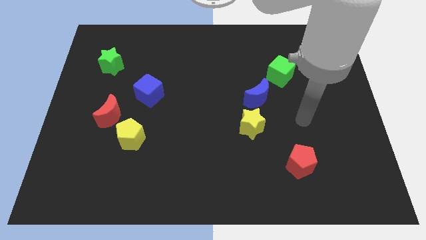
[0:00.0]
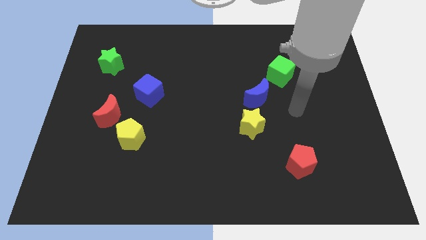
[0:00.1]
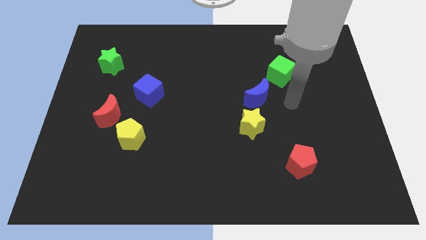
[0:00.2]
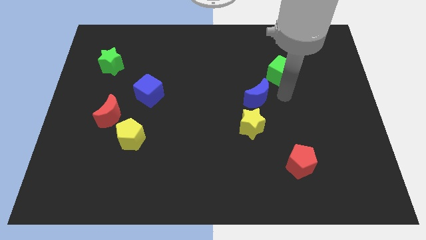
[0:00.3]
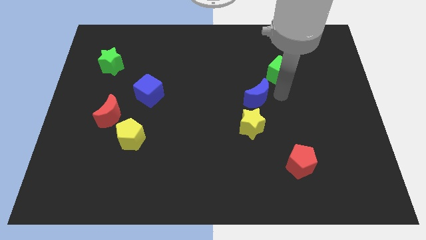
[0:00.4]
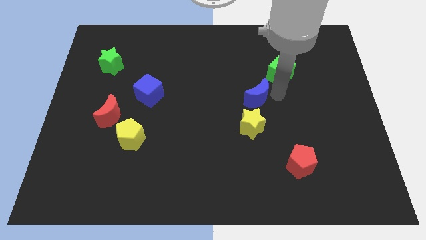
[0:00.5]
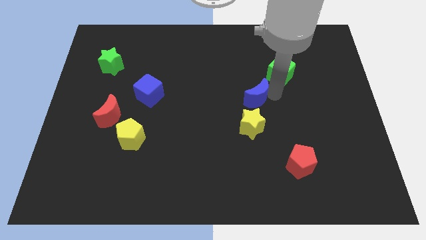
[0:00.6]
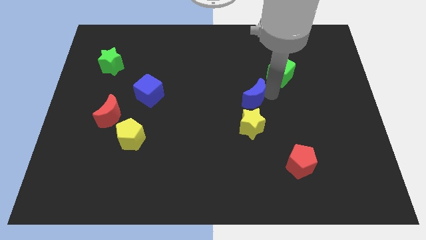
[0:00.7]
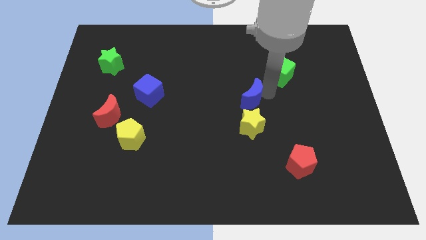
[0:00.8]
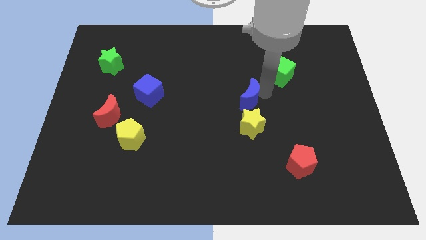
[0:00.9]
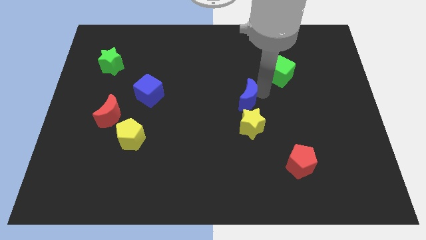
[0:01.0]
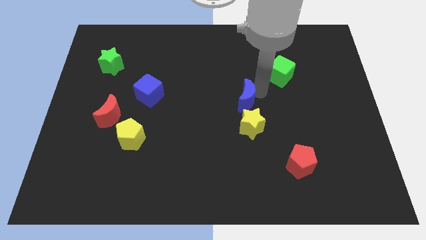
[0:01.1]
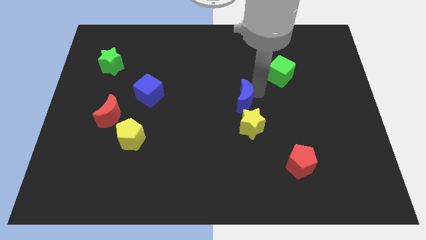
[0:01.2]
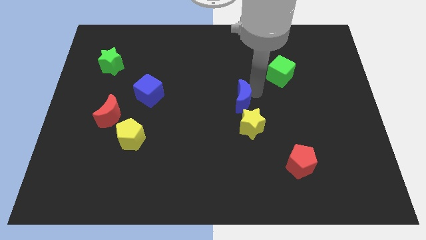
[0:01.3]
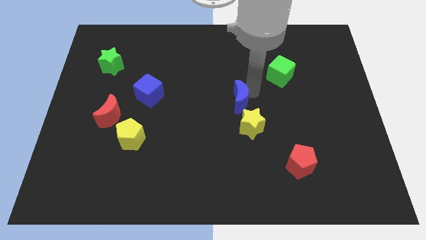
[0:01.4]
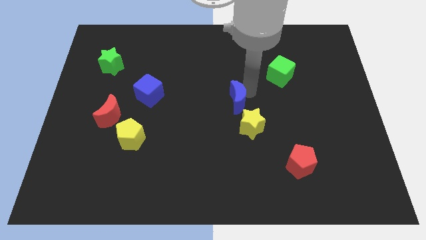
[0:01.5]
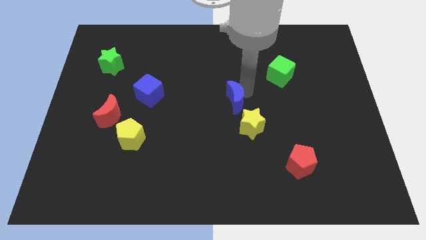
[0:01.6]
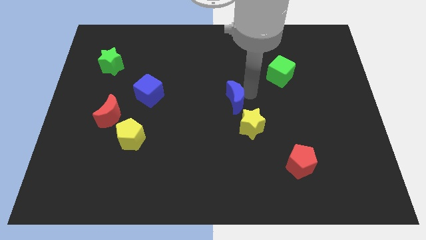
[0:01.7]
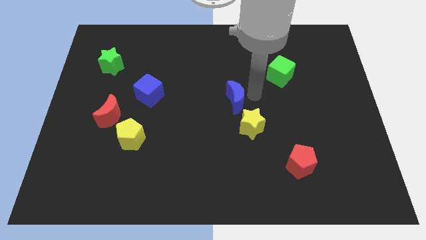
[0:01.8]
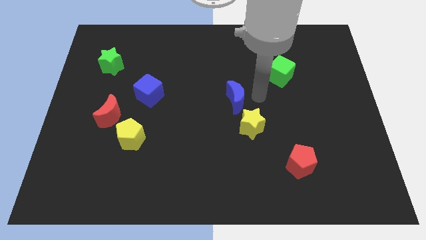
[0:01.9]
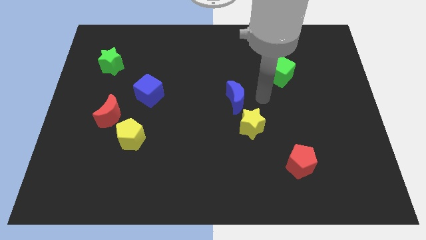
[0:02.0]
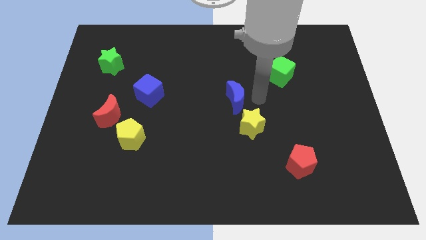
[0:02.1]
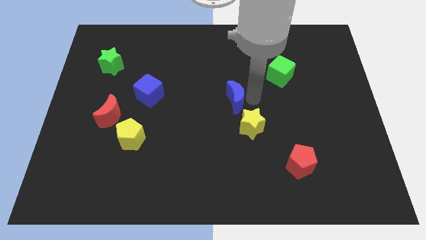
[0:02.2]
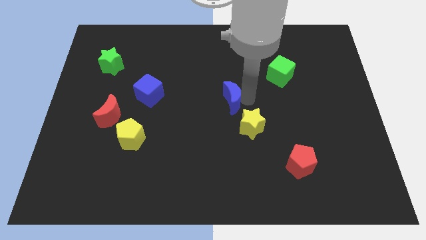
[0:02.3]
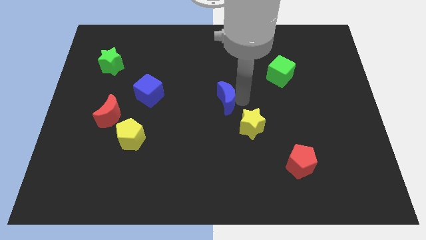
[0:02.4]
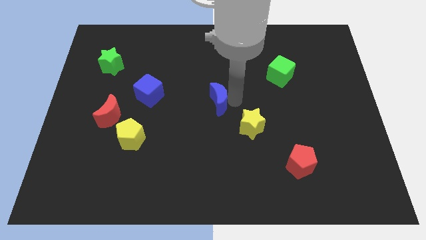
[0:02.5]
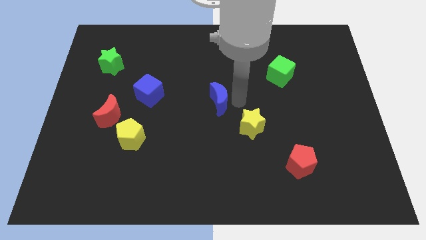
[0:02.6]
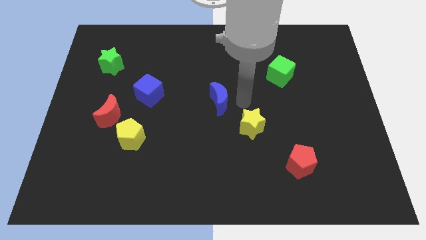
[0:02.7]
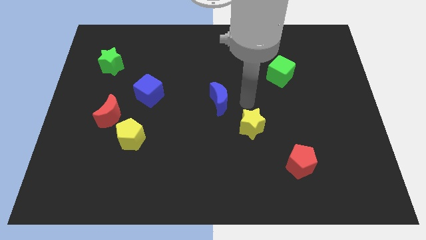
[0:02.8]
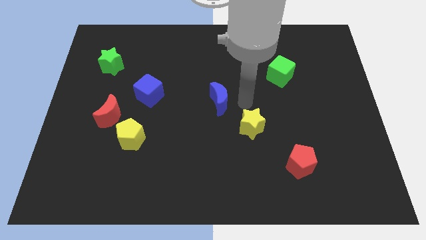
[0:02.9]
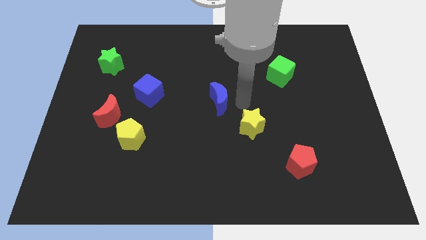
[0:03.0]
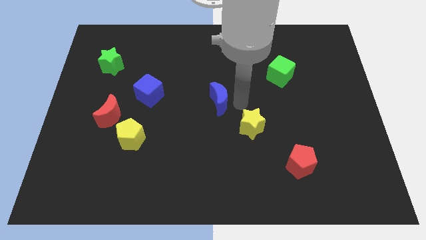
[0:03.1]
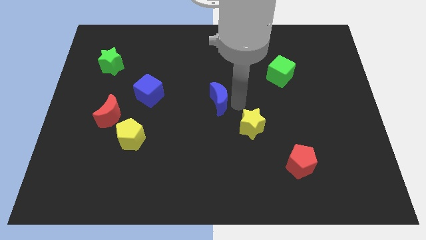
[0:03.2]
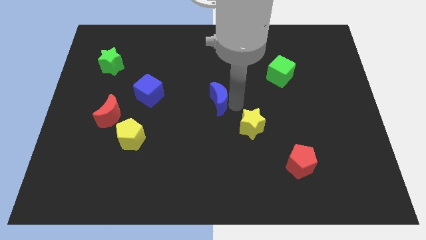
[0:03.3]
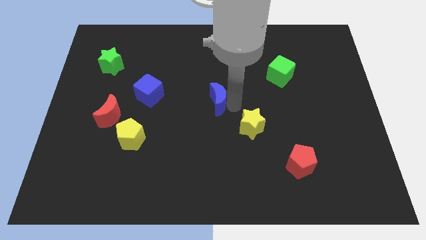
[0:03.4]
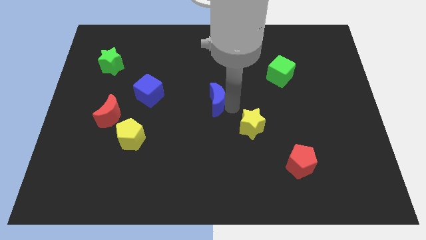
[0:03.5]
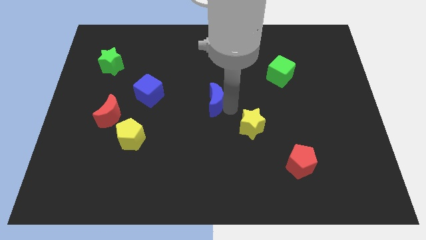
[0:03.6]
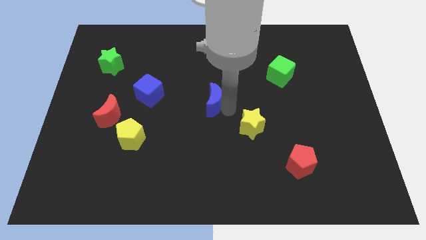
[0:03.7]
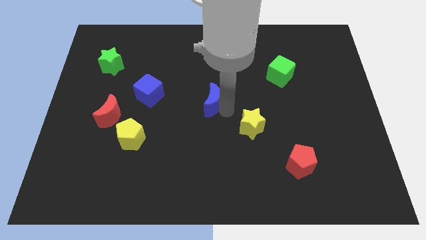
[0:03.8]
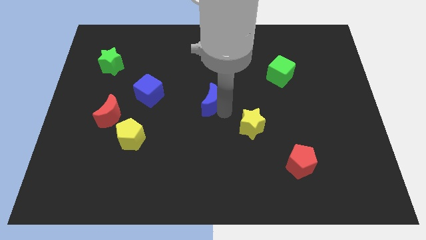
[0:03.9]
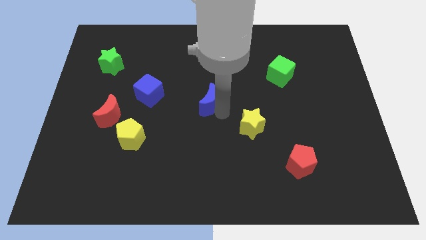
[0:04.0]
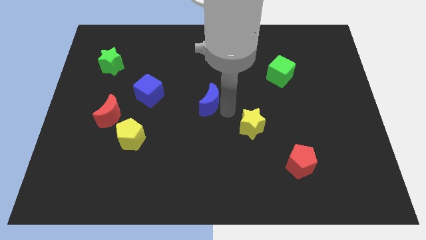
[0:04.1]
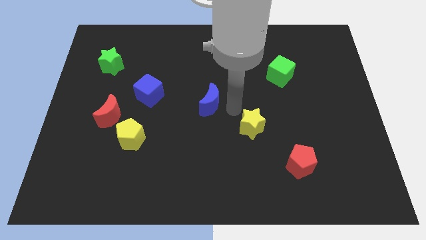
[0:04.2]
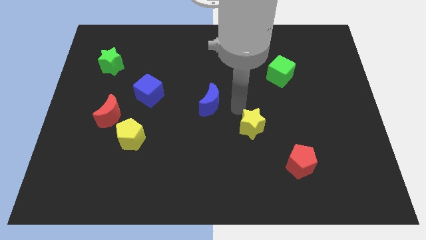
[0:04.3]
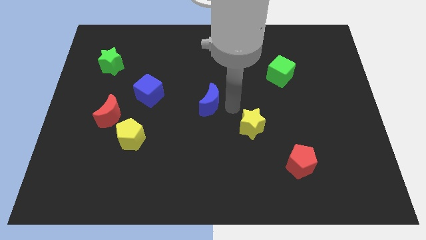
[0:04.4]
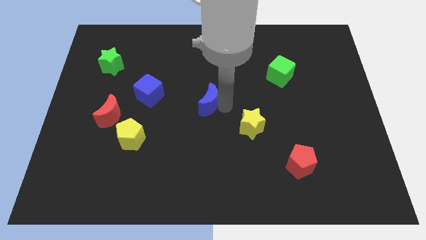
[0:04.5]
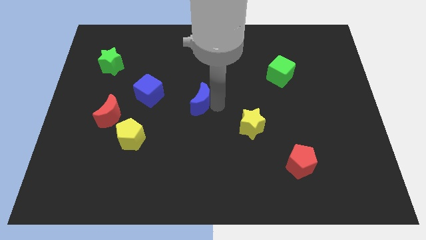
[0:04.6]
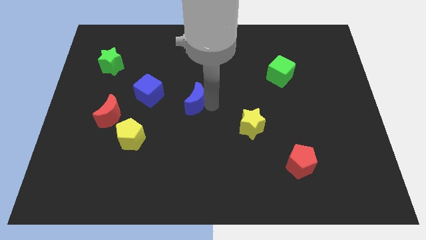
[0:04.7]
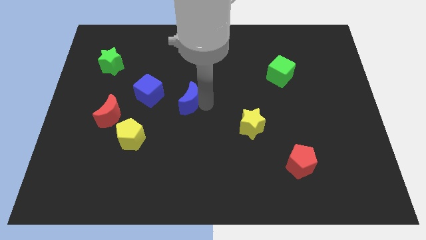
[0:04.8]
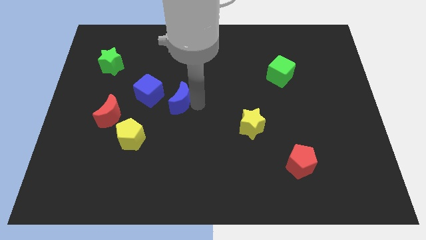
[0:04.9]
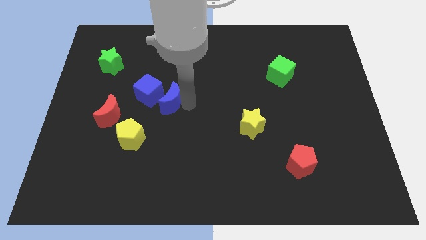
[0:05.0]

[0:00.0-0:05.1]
push the blue moon towards the blue cube

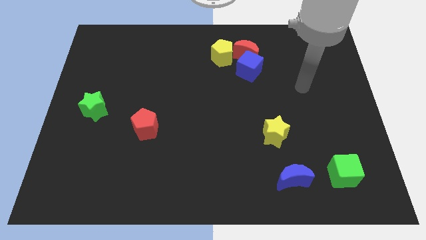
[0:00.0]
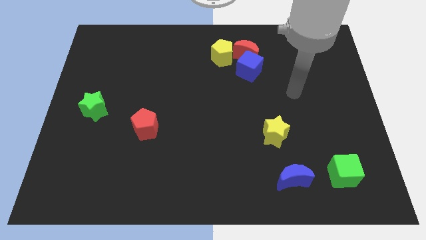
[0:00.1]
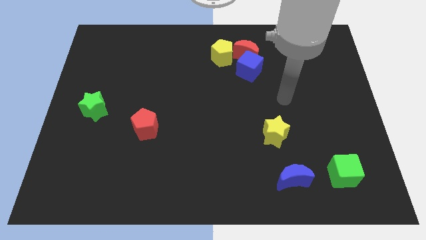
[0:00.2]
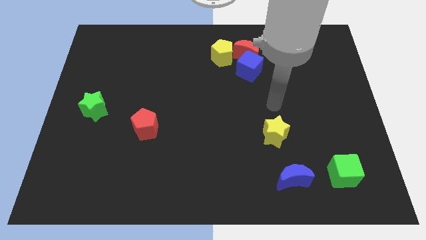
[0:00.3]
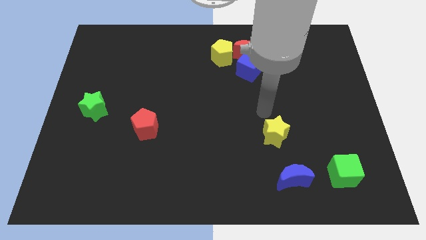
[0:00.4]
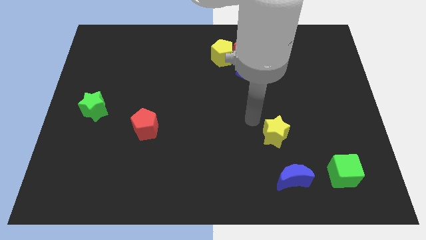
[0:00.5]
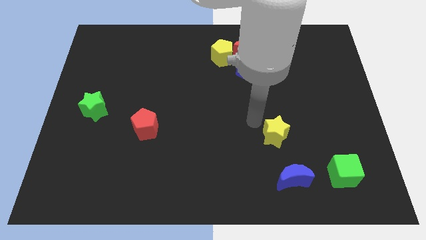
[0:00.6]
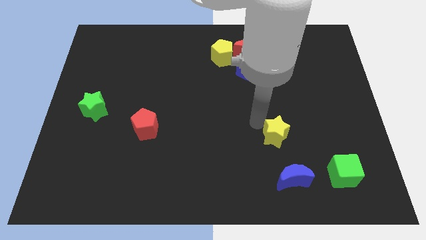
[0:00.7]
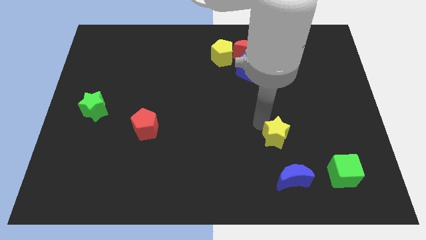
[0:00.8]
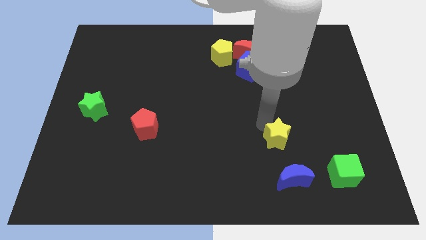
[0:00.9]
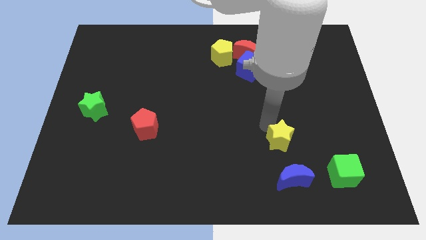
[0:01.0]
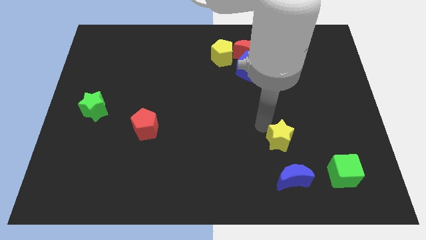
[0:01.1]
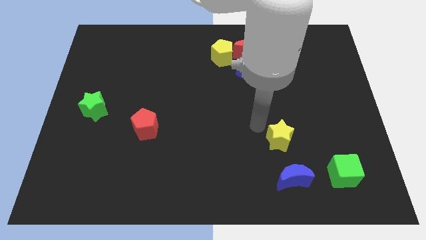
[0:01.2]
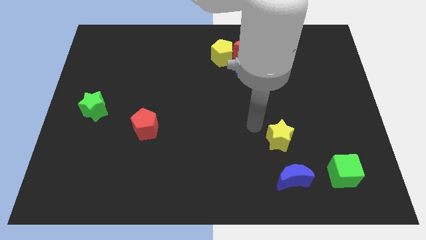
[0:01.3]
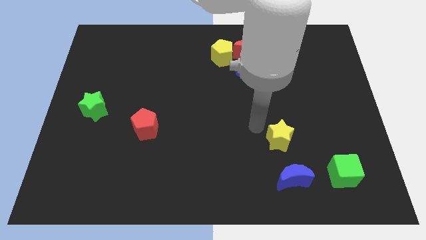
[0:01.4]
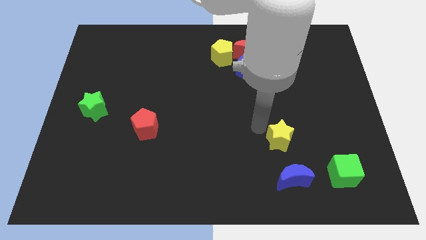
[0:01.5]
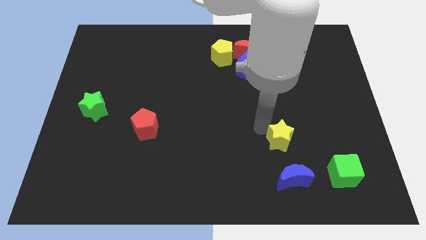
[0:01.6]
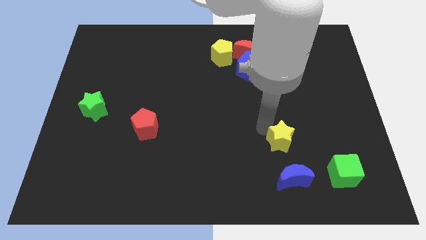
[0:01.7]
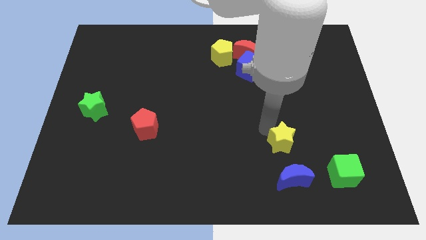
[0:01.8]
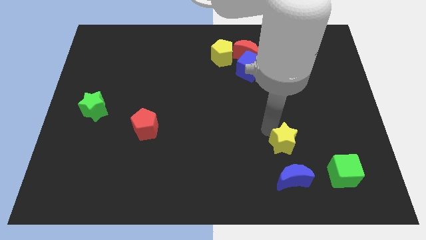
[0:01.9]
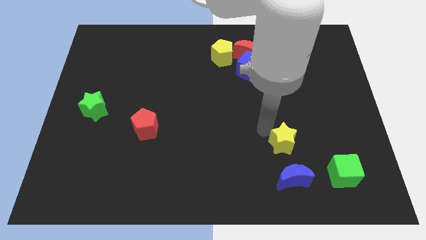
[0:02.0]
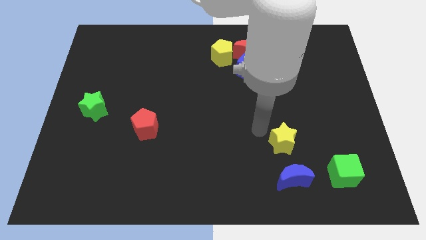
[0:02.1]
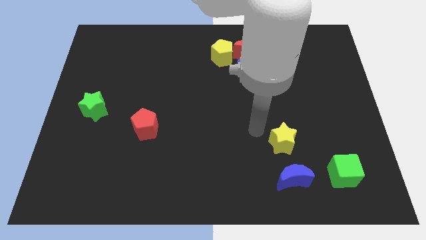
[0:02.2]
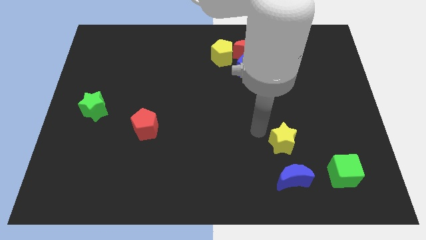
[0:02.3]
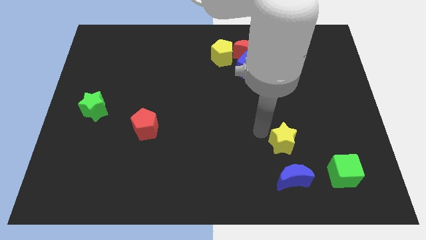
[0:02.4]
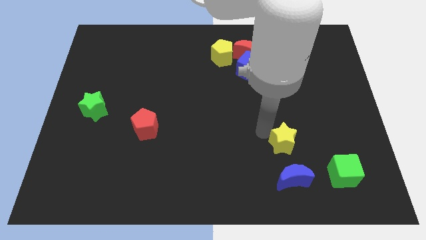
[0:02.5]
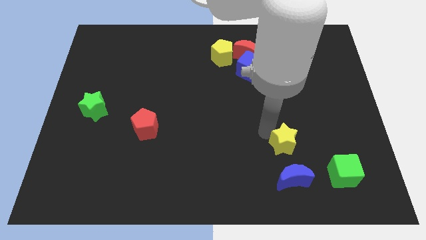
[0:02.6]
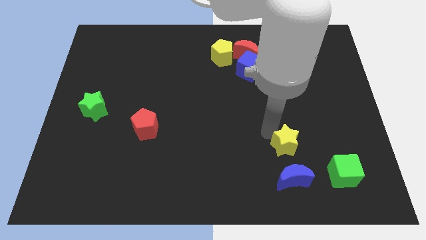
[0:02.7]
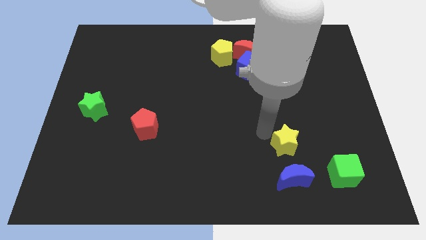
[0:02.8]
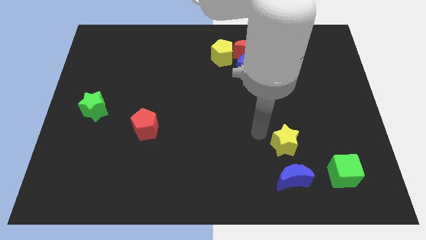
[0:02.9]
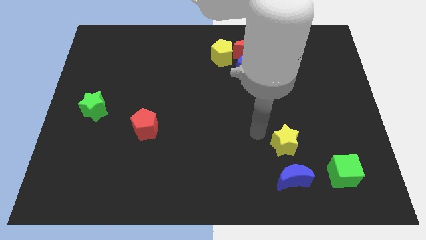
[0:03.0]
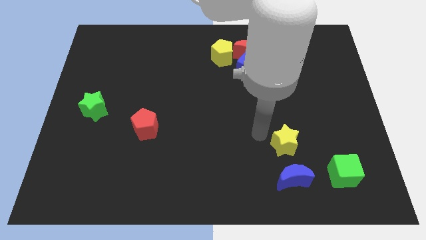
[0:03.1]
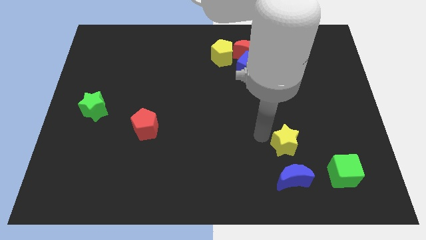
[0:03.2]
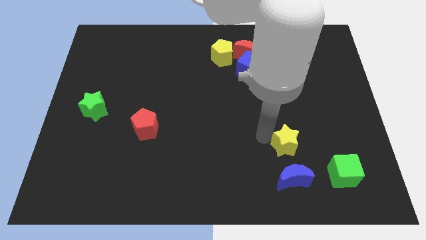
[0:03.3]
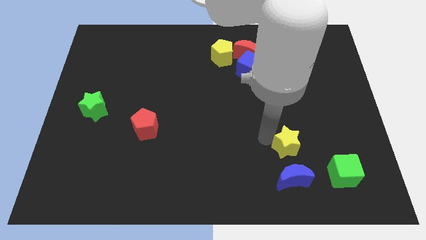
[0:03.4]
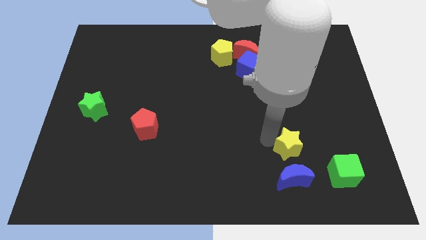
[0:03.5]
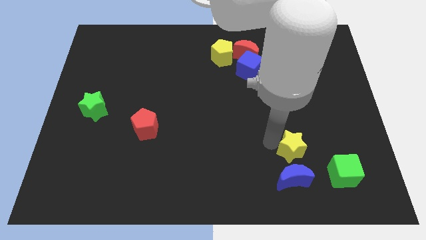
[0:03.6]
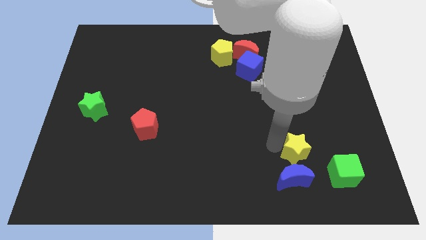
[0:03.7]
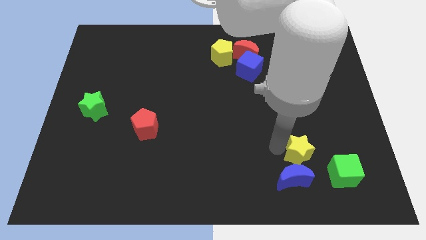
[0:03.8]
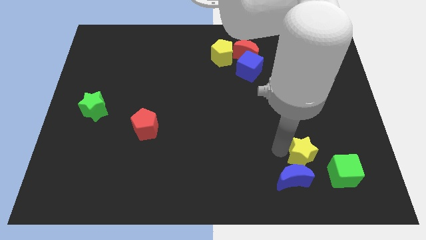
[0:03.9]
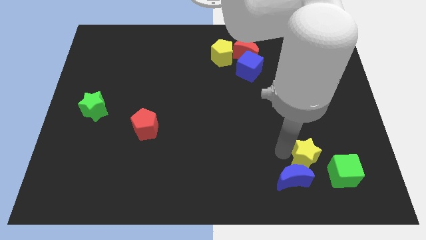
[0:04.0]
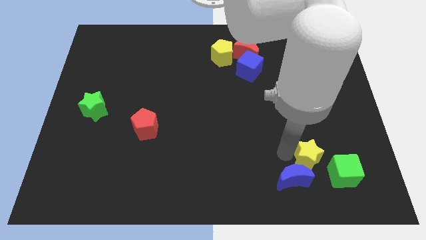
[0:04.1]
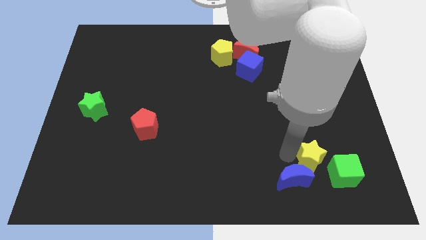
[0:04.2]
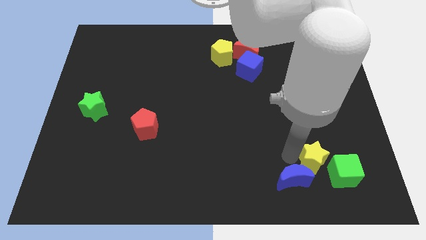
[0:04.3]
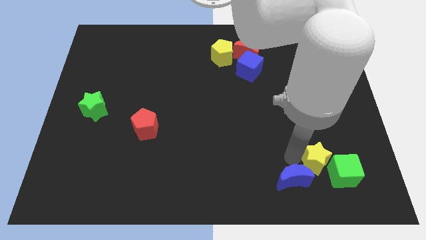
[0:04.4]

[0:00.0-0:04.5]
move the yellow star close to the green cube
